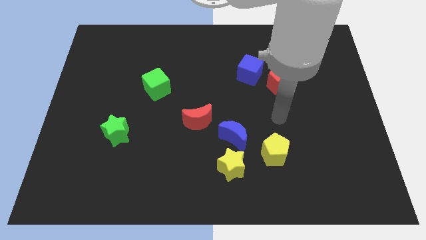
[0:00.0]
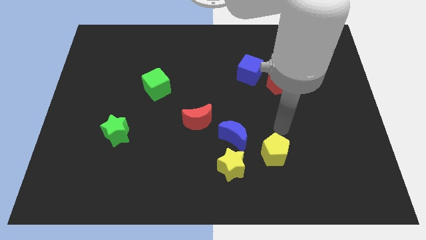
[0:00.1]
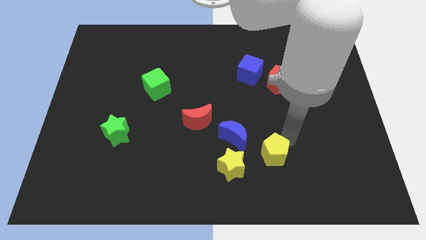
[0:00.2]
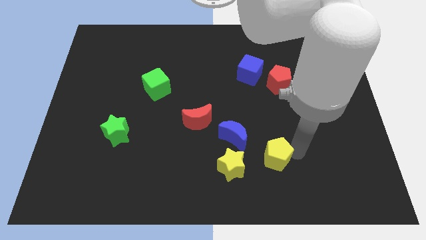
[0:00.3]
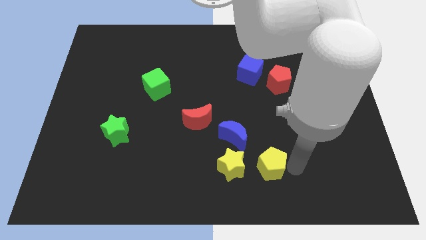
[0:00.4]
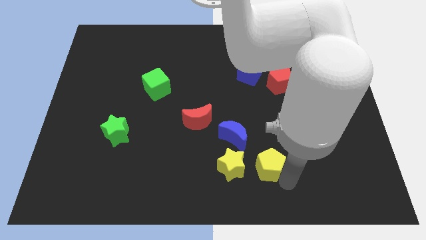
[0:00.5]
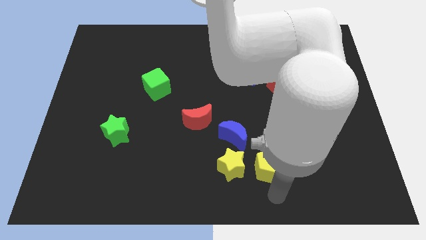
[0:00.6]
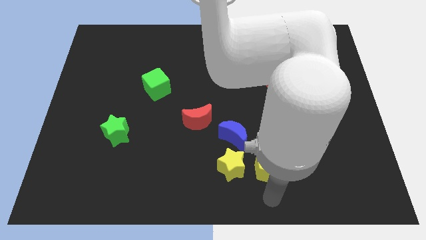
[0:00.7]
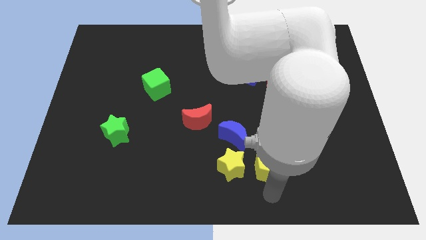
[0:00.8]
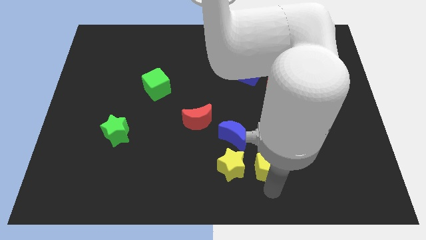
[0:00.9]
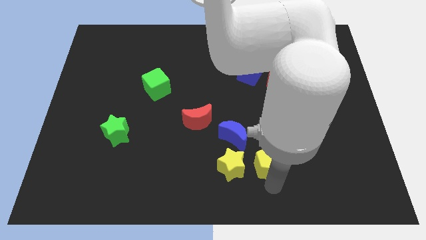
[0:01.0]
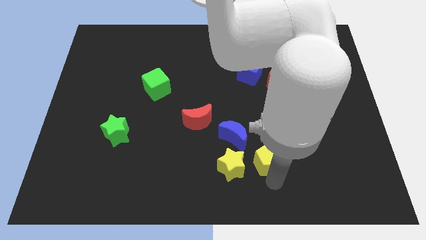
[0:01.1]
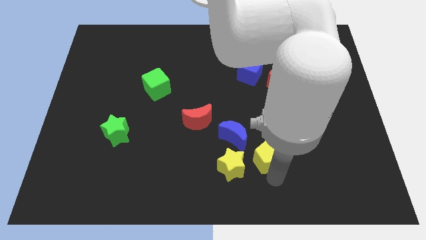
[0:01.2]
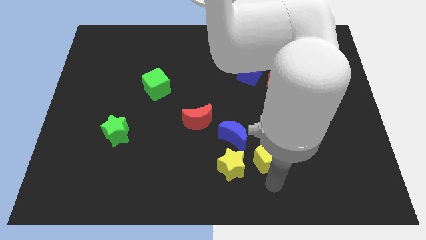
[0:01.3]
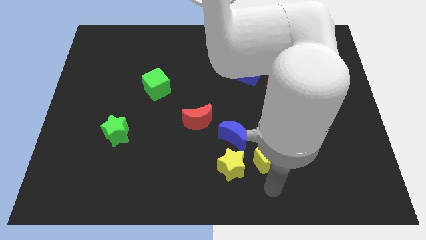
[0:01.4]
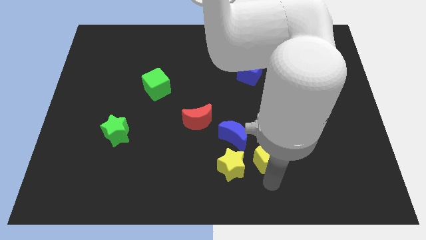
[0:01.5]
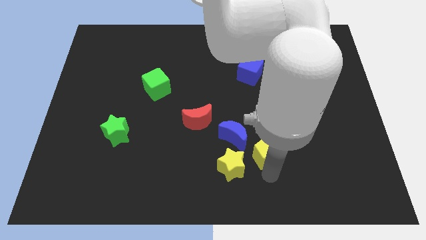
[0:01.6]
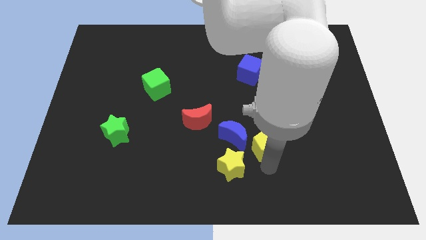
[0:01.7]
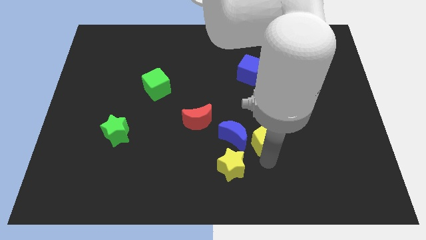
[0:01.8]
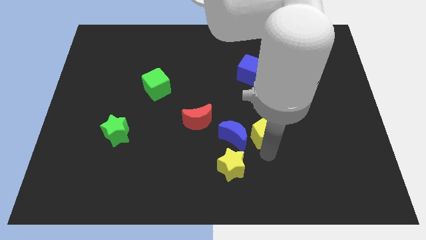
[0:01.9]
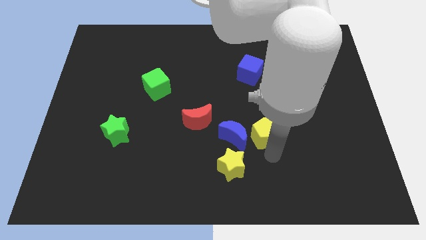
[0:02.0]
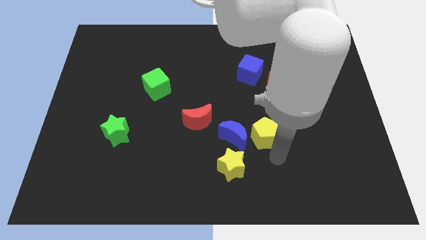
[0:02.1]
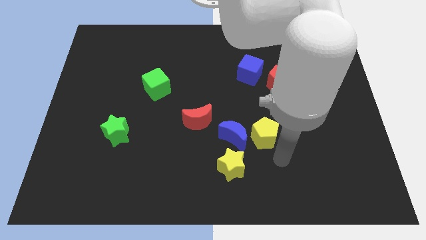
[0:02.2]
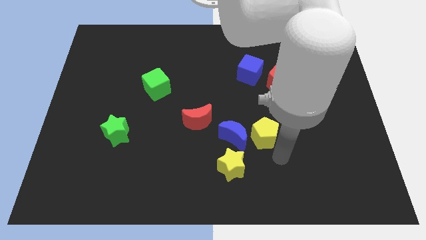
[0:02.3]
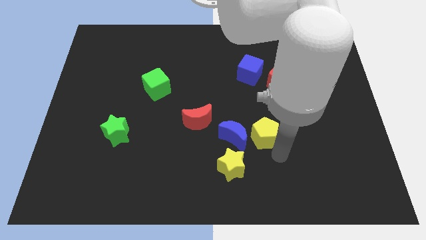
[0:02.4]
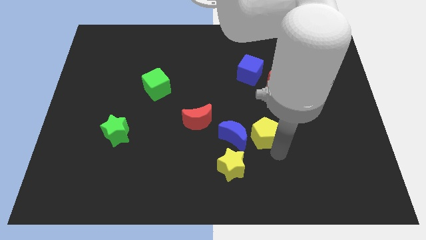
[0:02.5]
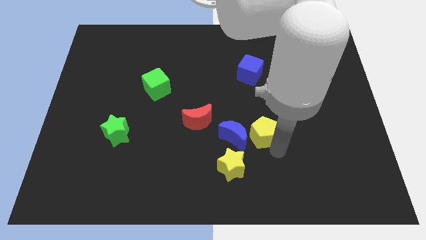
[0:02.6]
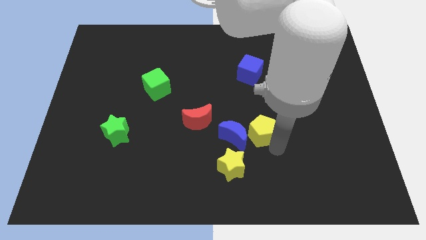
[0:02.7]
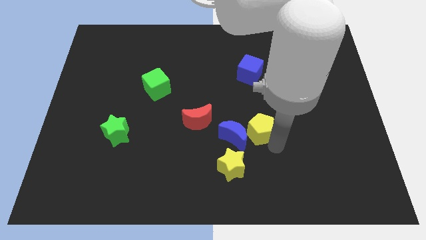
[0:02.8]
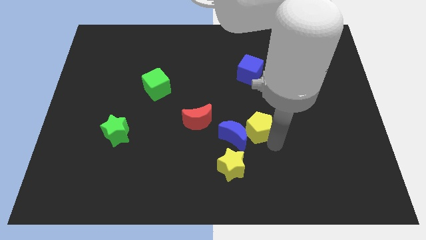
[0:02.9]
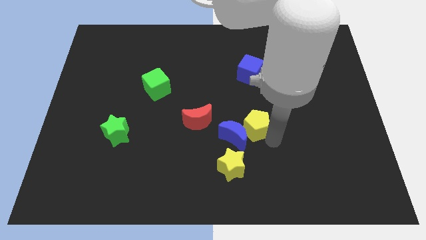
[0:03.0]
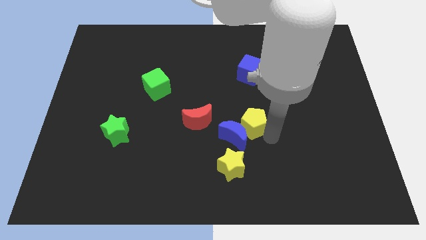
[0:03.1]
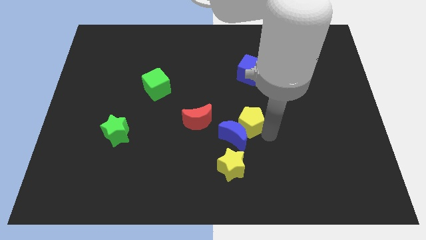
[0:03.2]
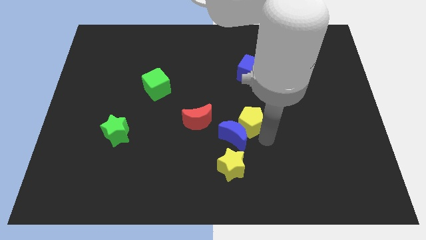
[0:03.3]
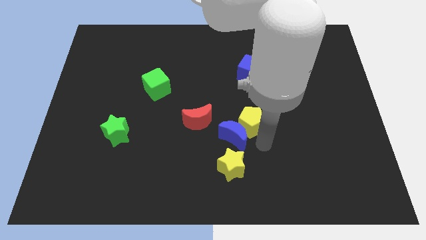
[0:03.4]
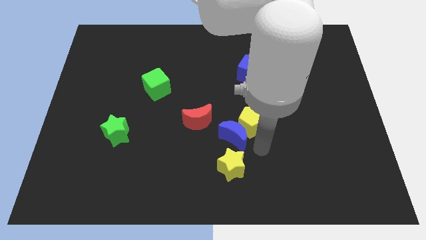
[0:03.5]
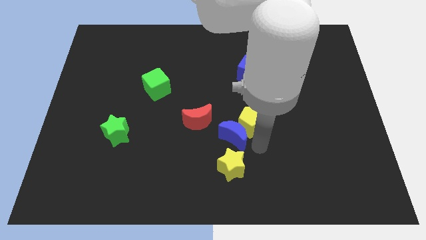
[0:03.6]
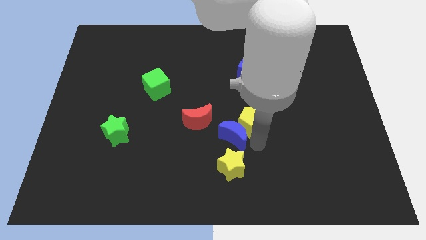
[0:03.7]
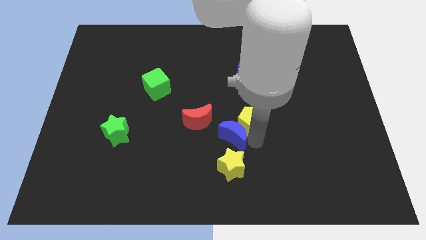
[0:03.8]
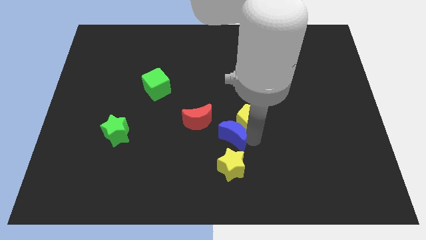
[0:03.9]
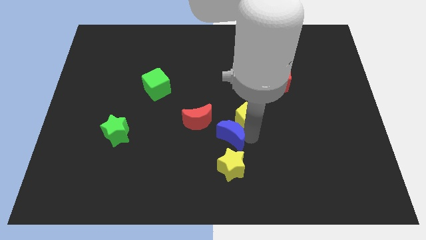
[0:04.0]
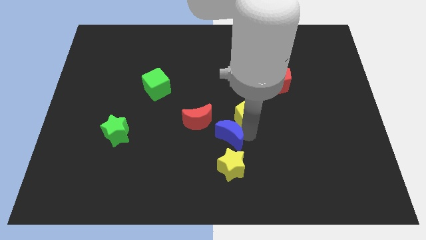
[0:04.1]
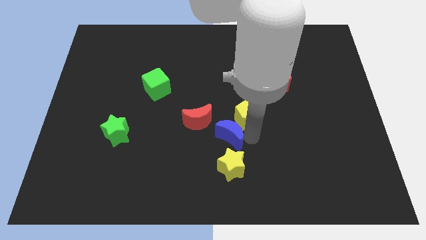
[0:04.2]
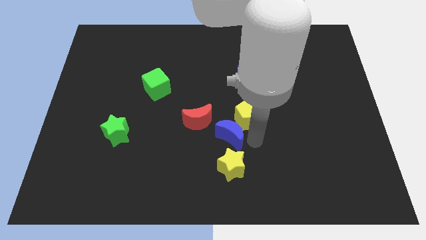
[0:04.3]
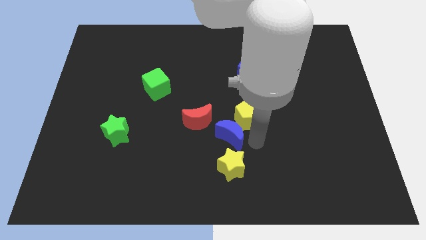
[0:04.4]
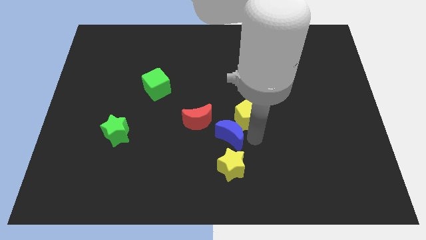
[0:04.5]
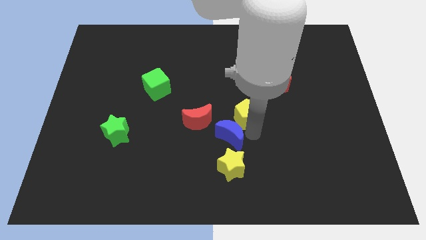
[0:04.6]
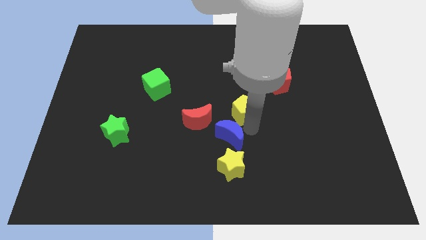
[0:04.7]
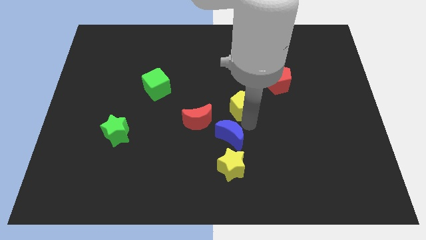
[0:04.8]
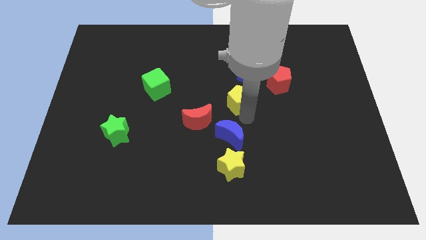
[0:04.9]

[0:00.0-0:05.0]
push the yellow pentagon to the bottom left side of the blue cube

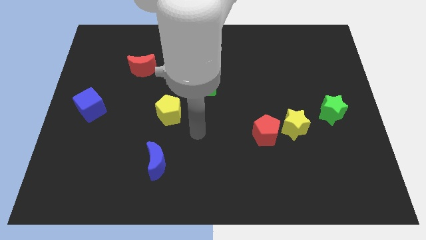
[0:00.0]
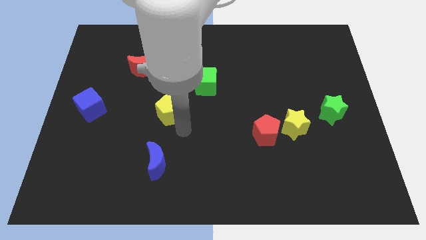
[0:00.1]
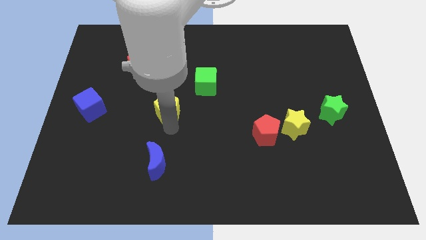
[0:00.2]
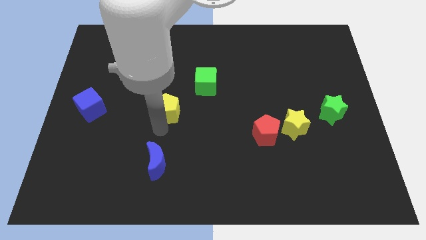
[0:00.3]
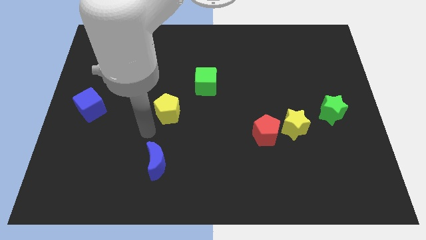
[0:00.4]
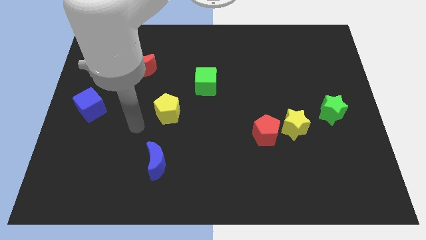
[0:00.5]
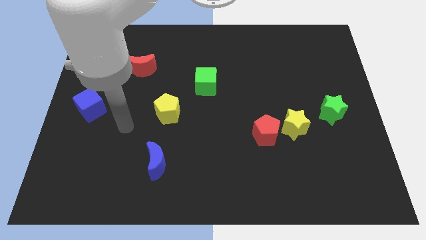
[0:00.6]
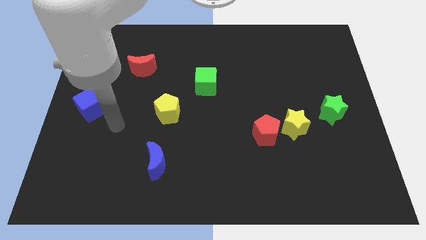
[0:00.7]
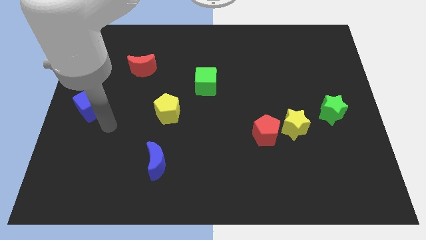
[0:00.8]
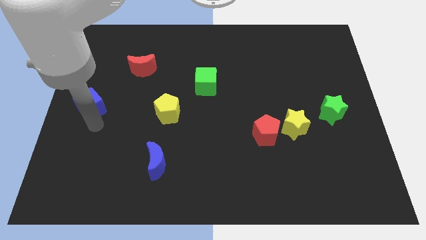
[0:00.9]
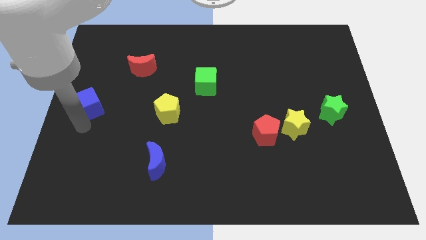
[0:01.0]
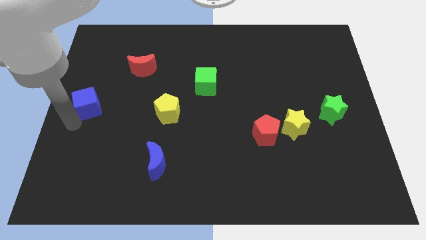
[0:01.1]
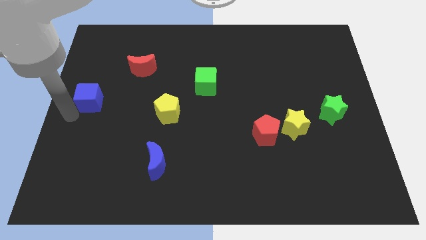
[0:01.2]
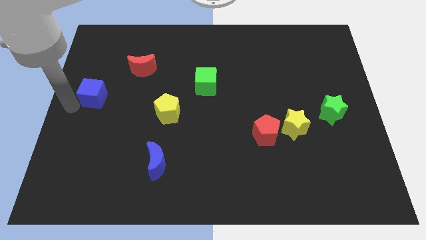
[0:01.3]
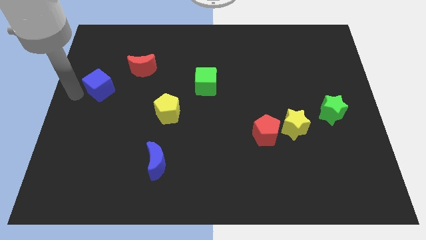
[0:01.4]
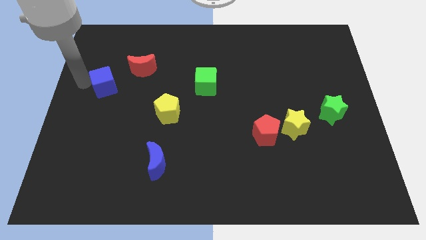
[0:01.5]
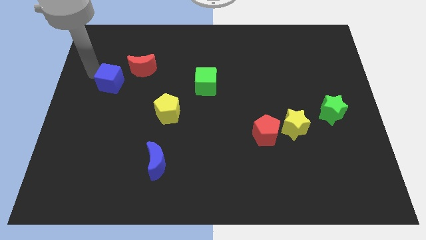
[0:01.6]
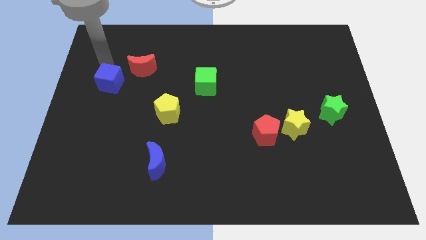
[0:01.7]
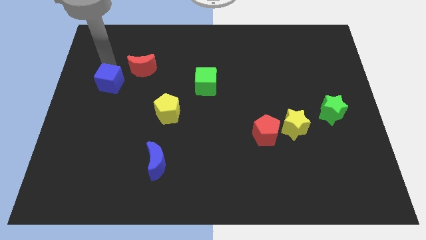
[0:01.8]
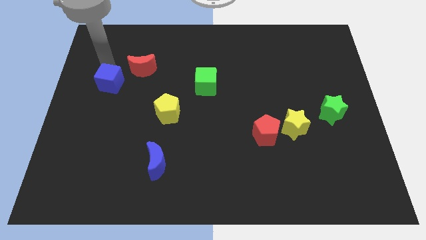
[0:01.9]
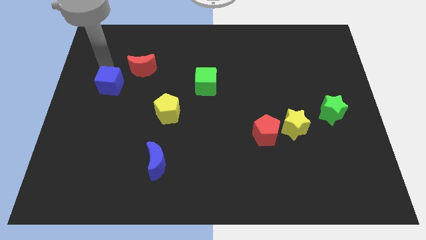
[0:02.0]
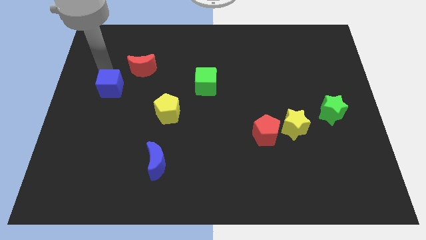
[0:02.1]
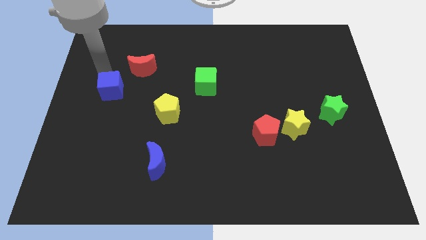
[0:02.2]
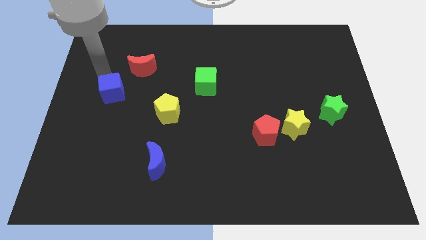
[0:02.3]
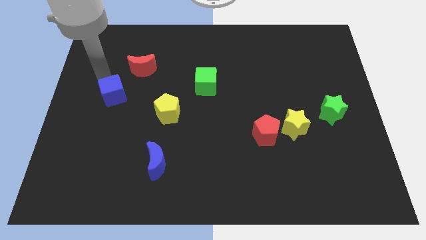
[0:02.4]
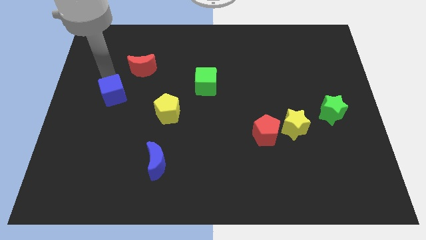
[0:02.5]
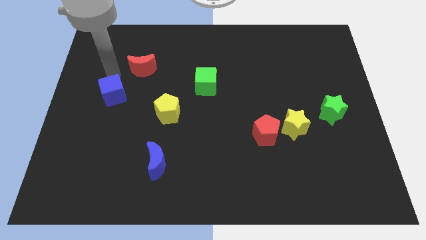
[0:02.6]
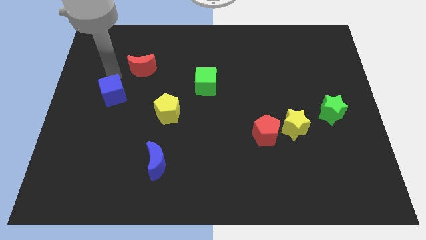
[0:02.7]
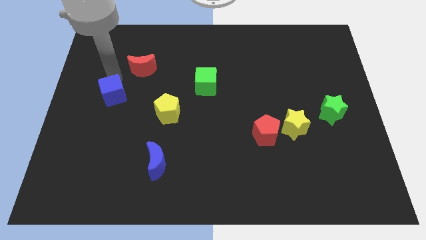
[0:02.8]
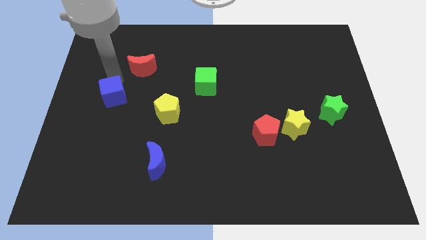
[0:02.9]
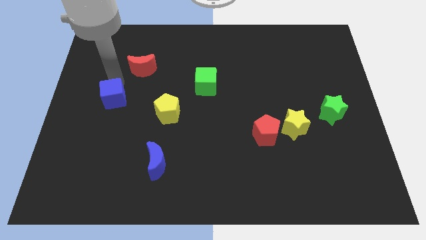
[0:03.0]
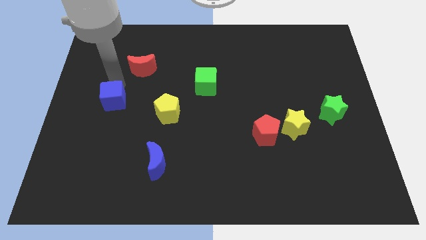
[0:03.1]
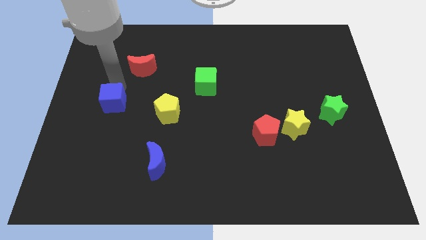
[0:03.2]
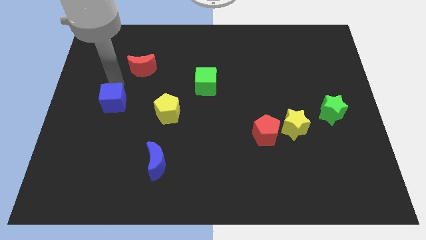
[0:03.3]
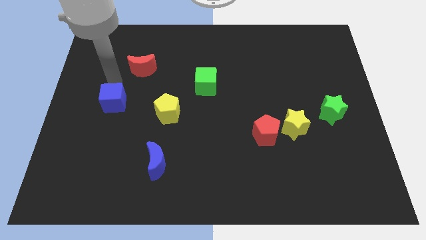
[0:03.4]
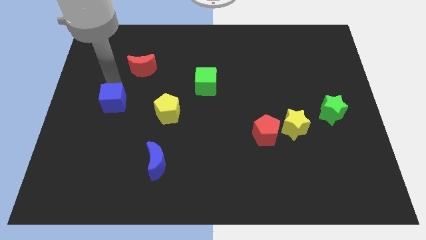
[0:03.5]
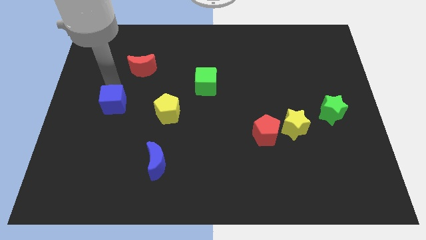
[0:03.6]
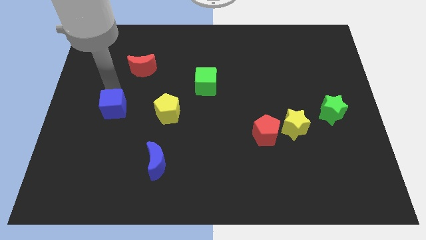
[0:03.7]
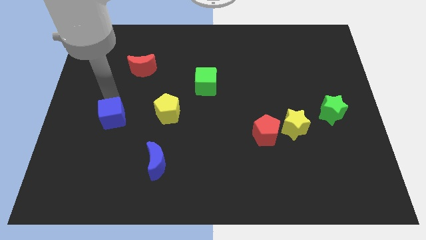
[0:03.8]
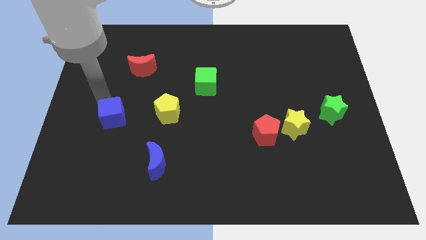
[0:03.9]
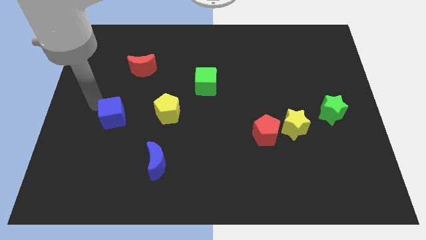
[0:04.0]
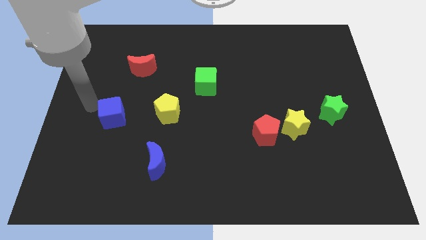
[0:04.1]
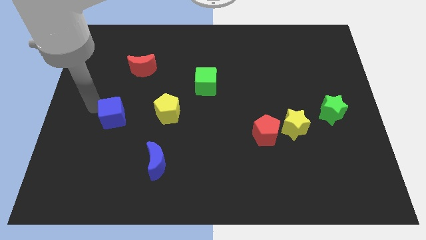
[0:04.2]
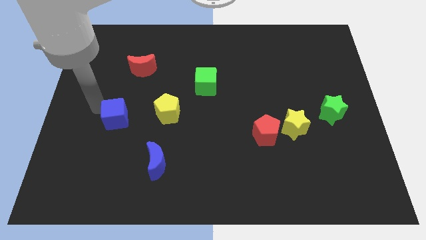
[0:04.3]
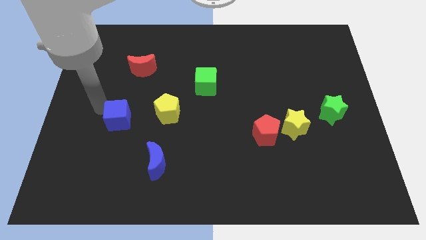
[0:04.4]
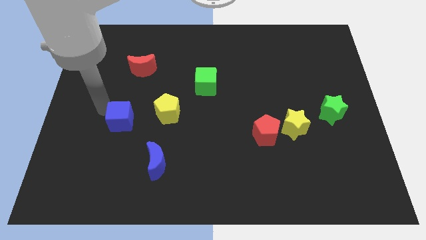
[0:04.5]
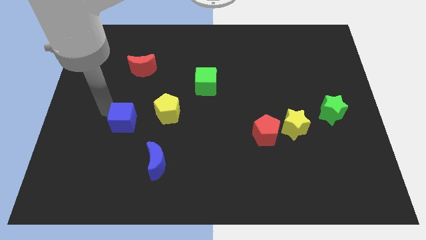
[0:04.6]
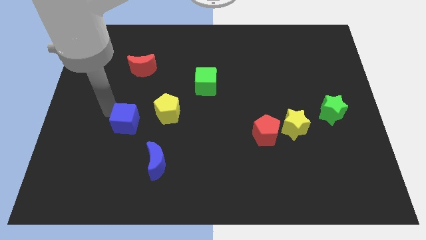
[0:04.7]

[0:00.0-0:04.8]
put the blue cube to the bottom left of the yellow pentagon
